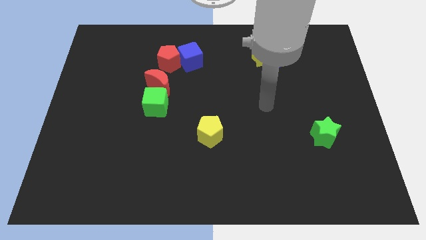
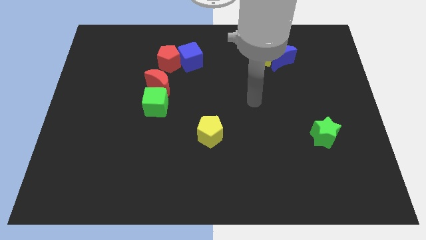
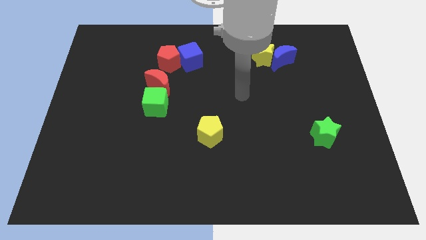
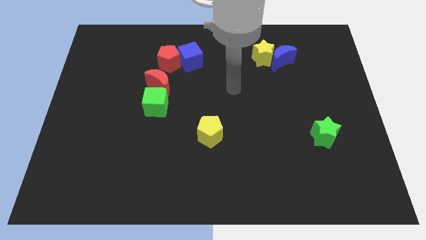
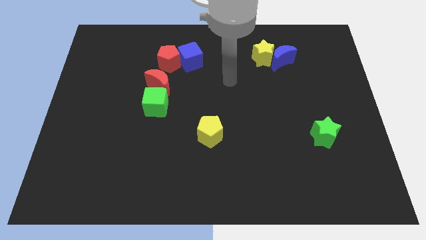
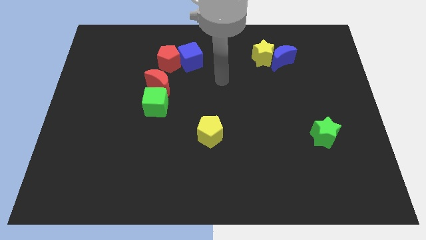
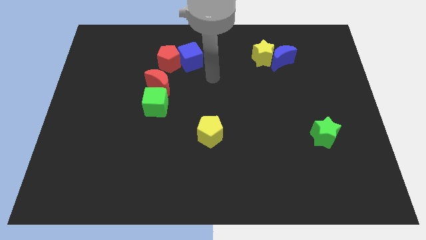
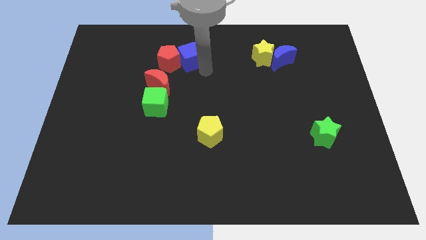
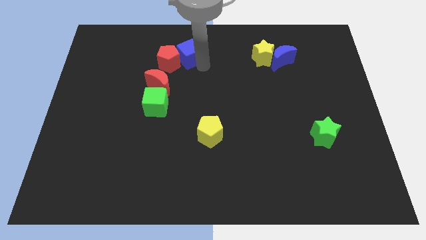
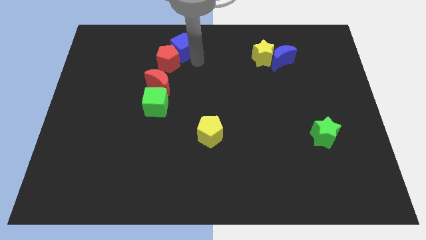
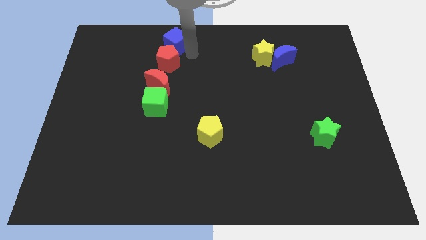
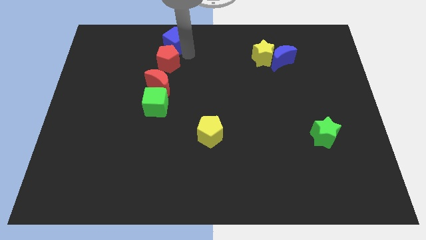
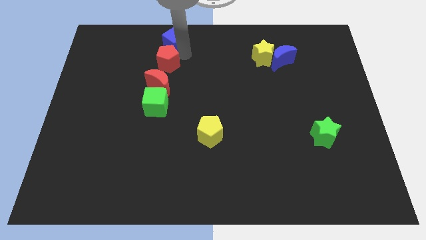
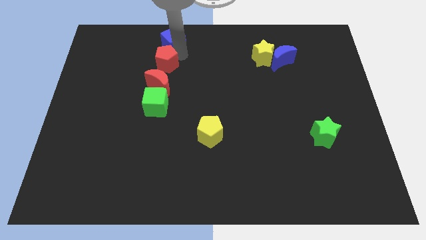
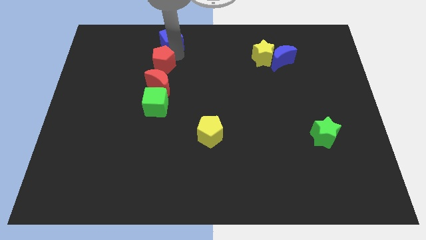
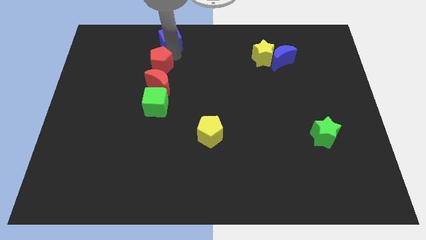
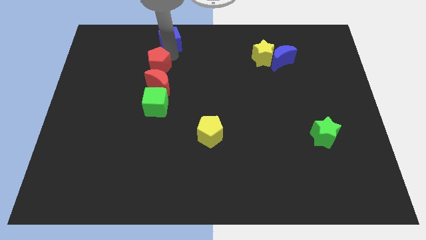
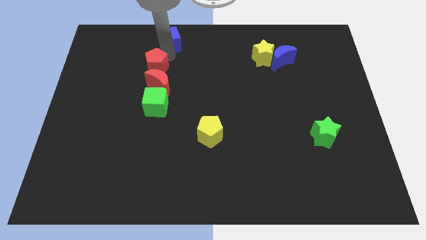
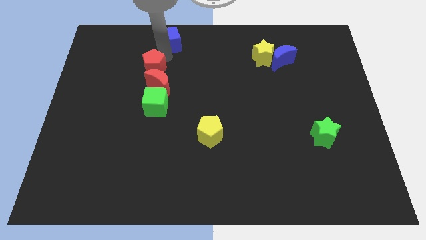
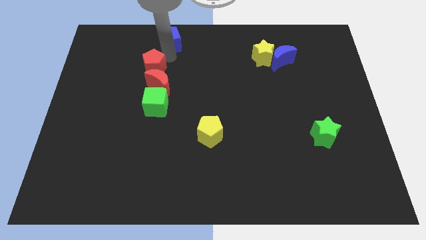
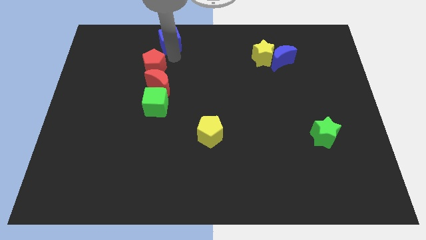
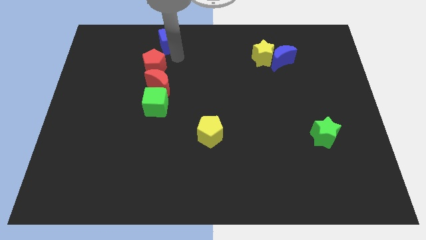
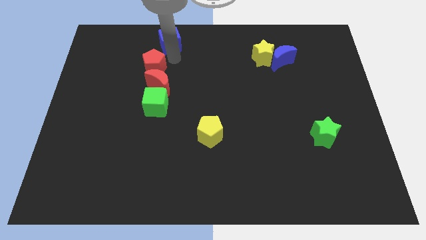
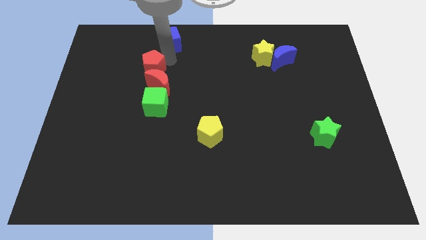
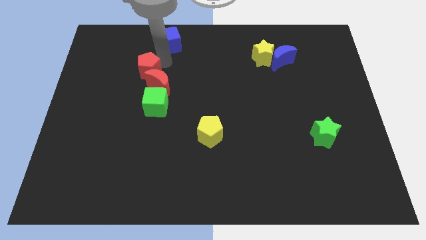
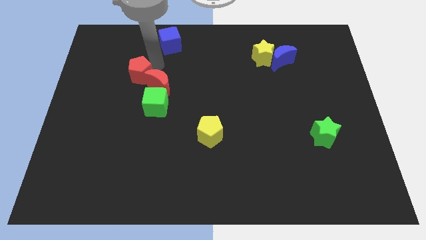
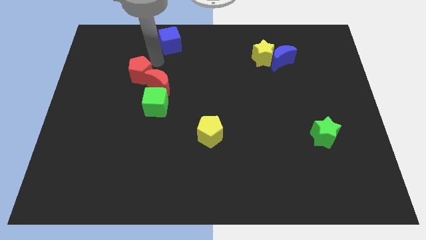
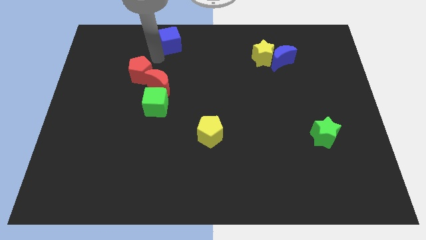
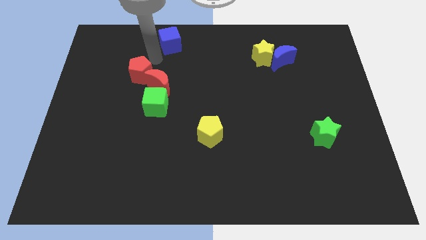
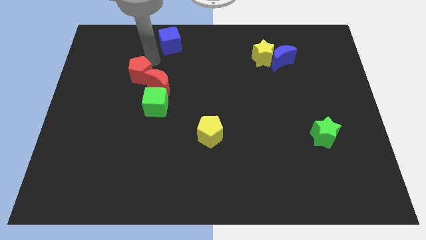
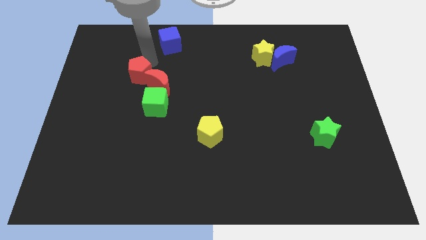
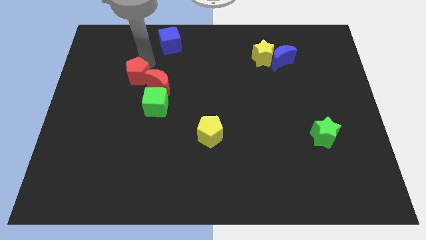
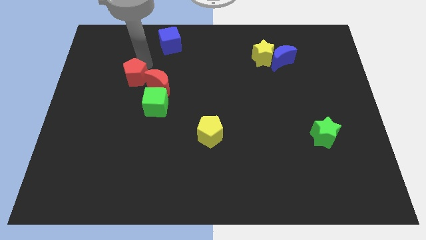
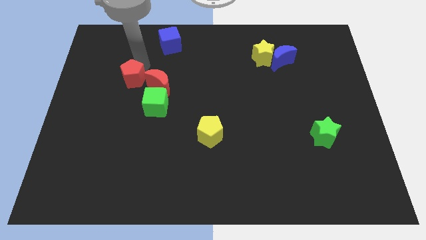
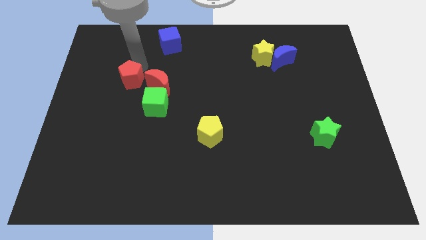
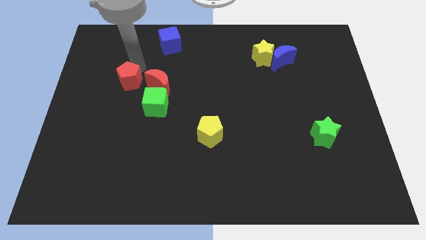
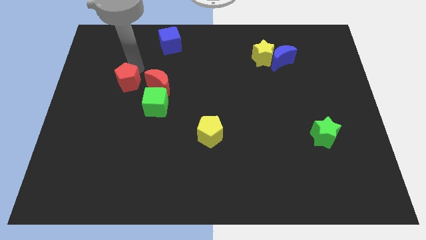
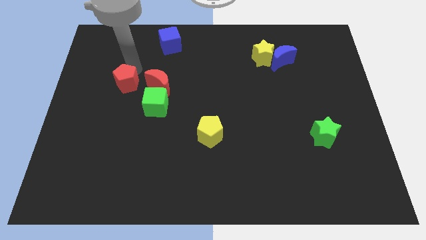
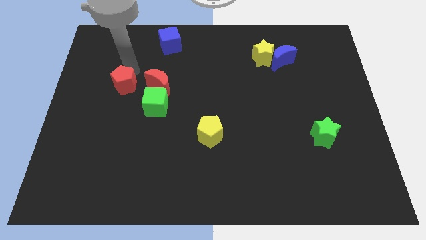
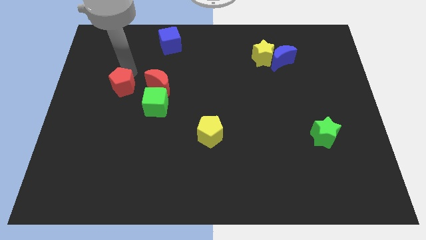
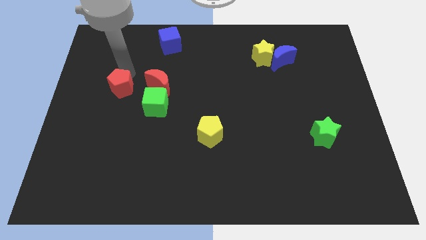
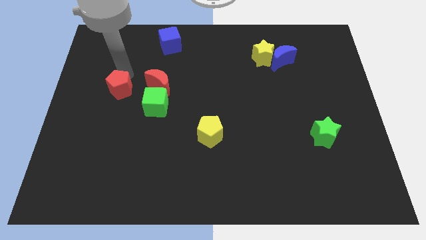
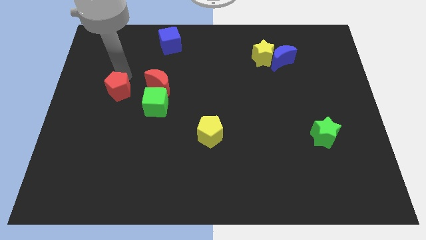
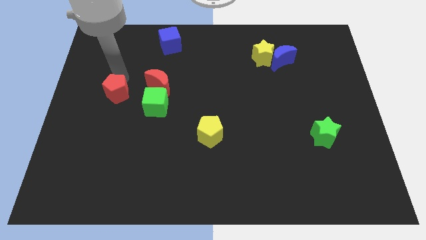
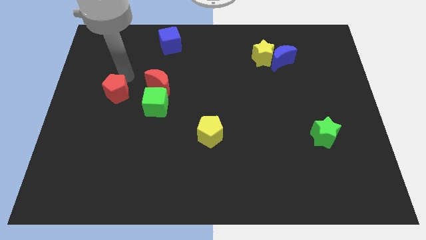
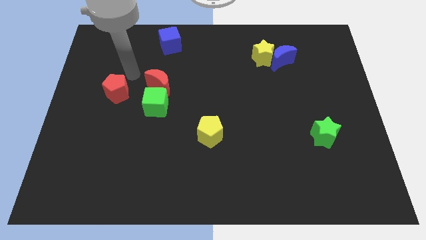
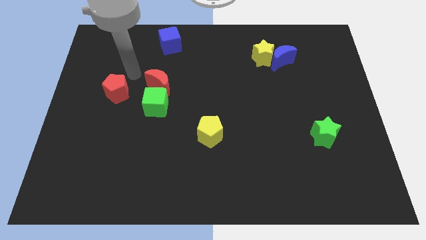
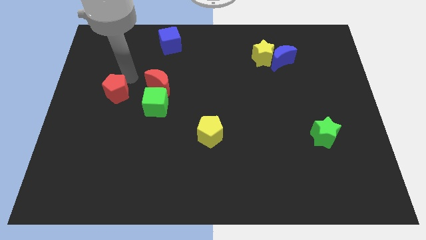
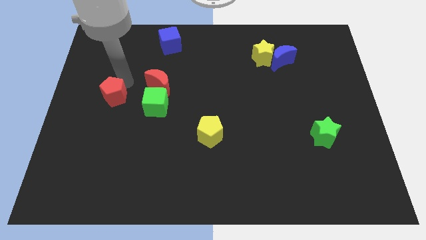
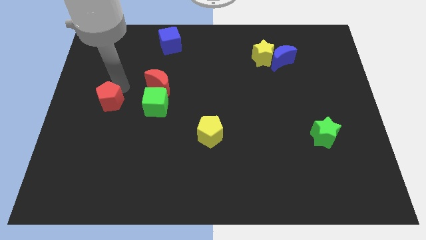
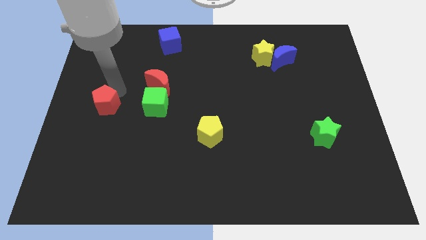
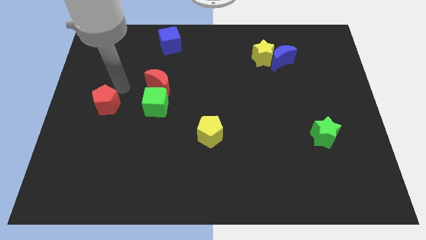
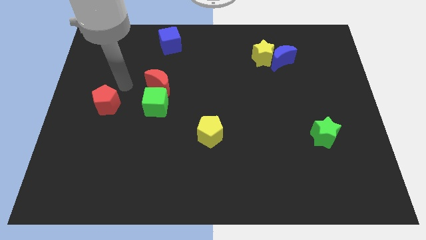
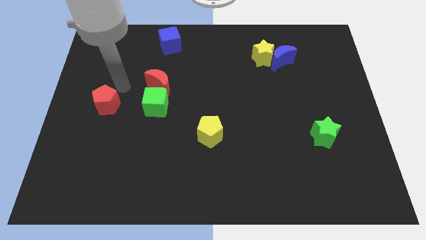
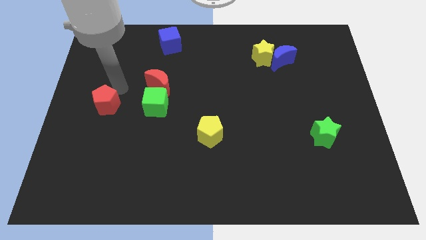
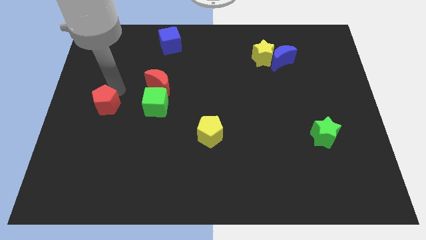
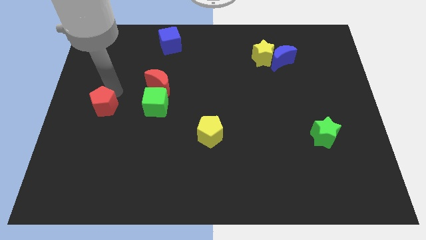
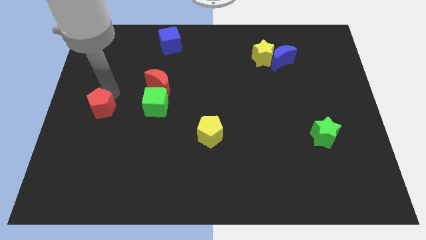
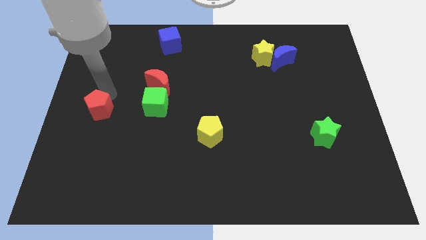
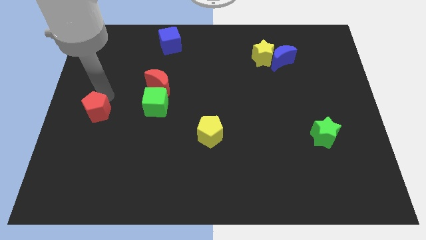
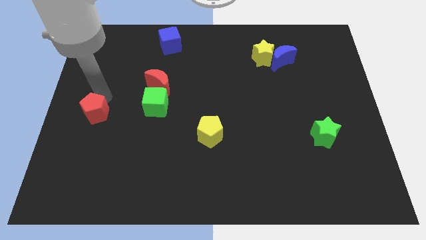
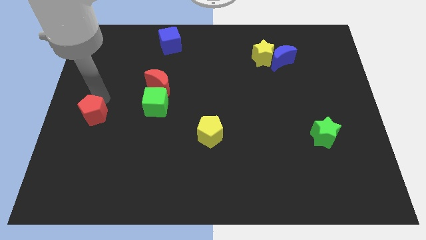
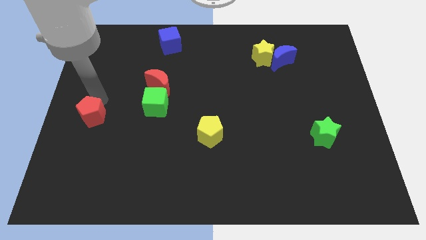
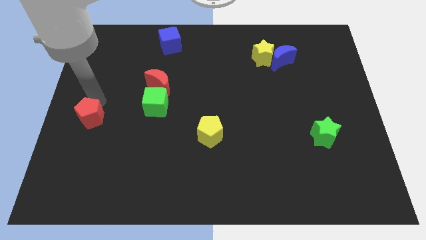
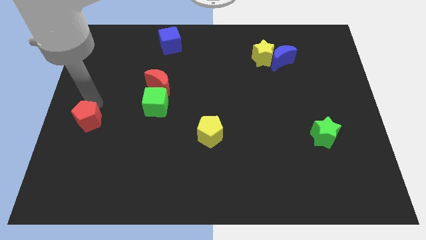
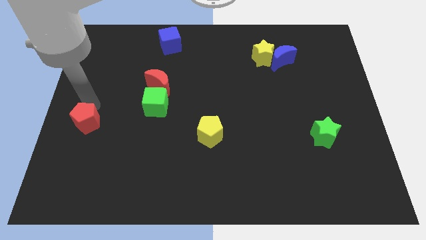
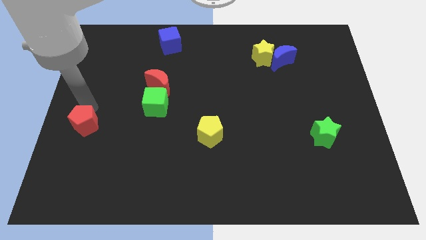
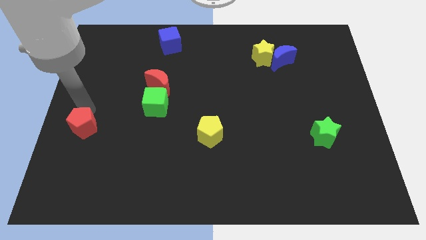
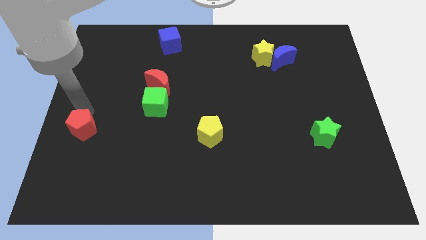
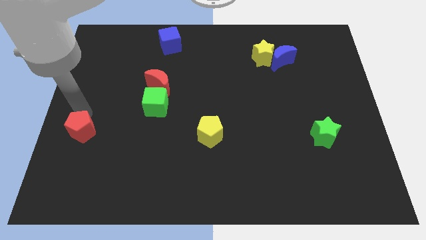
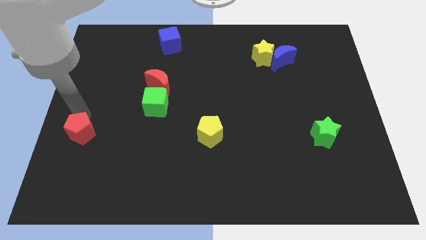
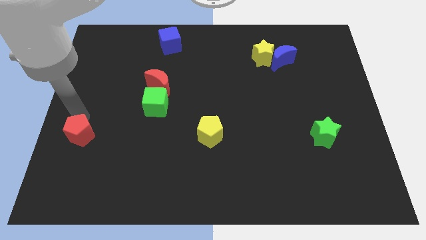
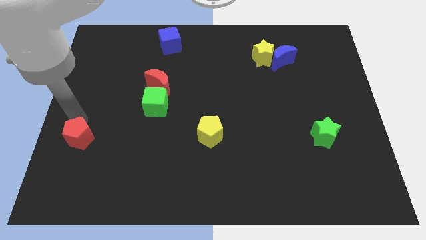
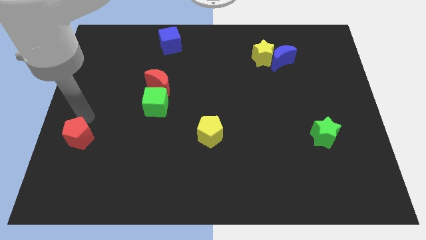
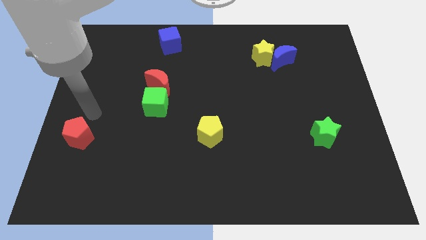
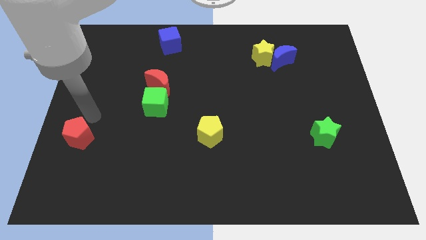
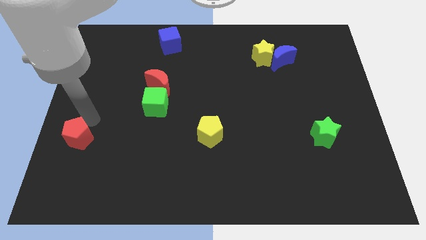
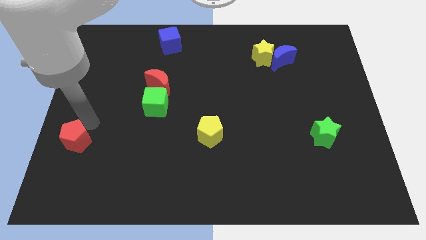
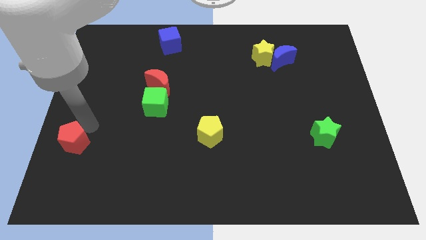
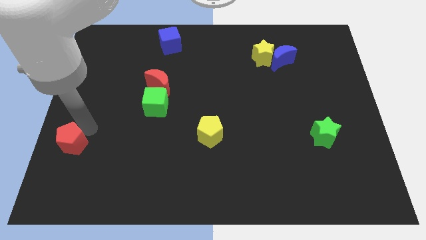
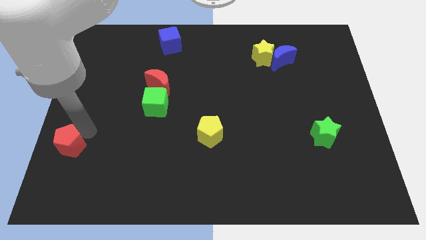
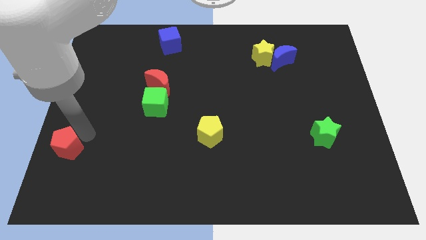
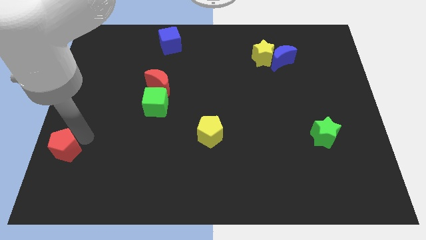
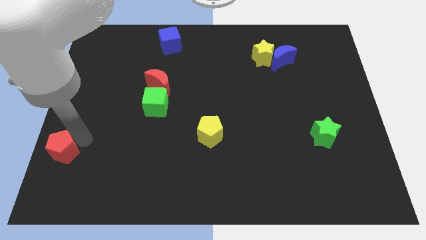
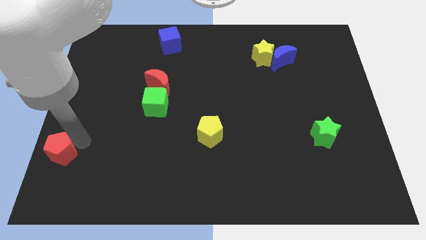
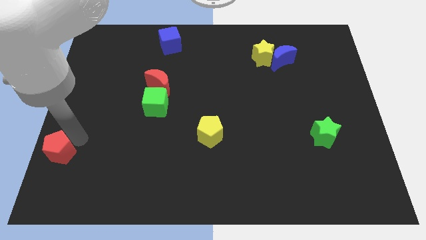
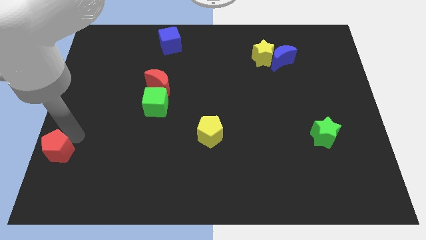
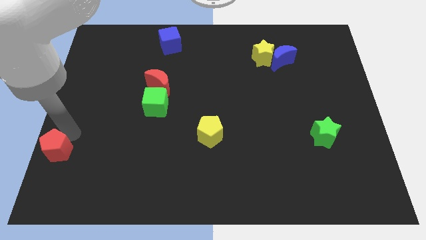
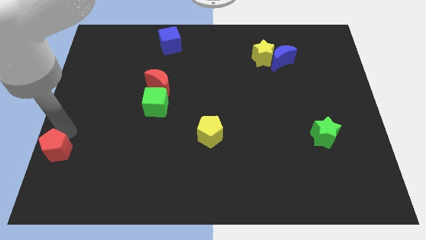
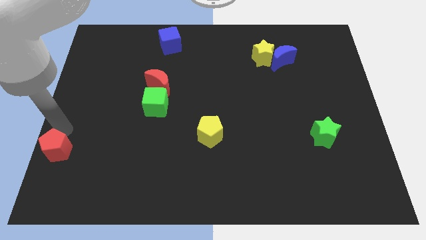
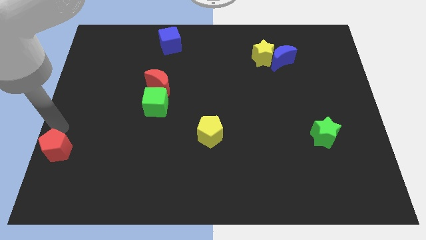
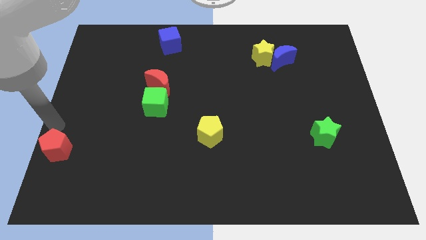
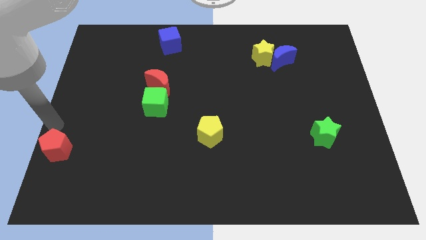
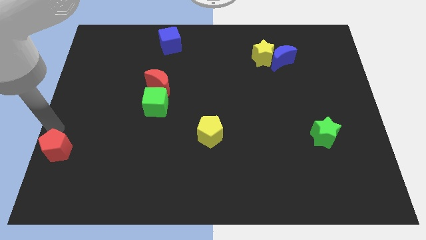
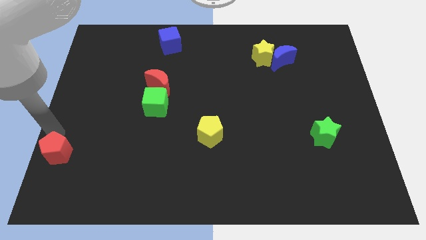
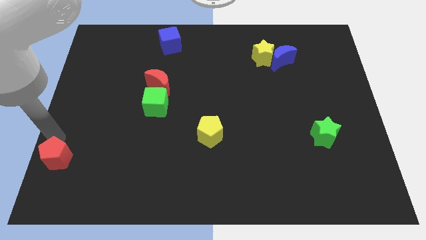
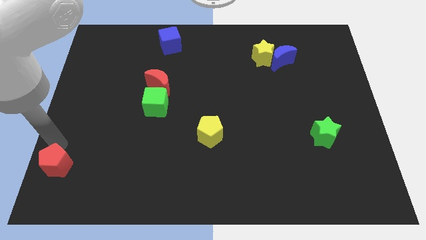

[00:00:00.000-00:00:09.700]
push the red pentagon to the bottom left of the board
